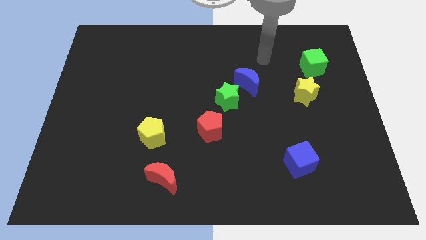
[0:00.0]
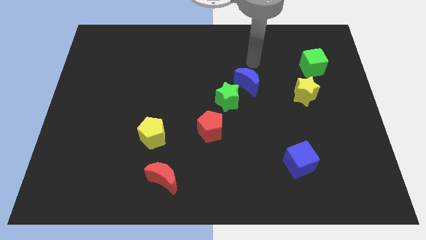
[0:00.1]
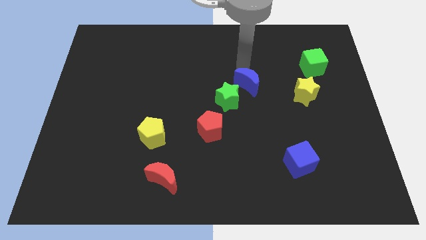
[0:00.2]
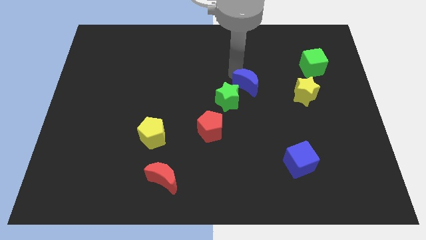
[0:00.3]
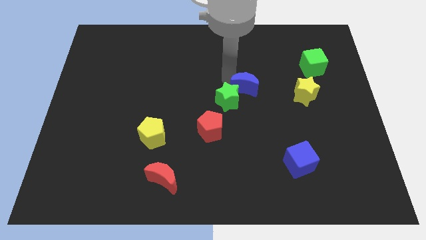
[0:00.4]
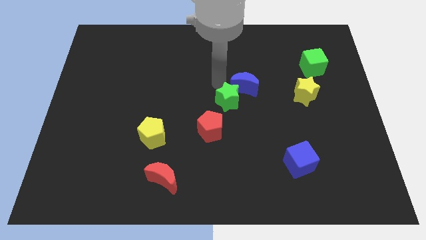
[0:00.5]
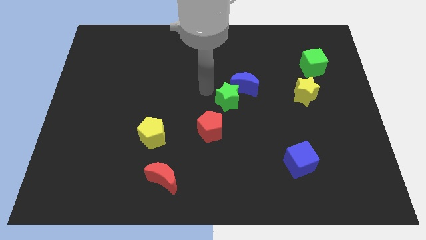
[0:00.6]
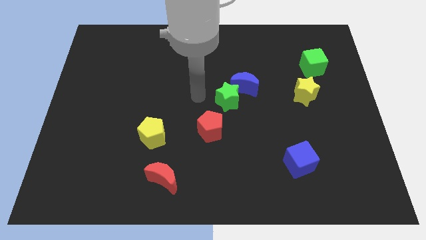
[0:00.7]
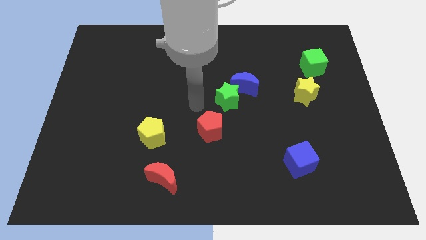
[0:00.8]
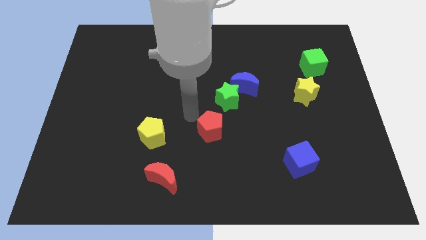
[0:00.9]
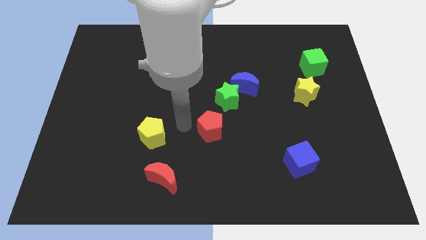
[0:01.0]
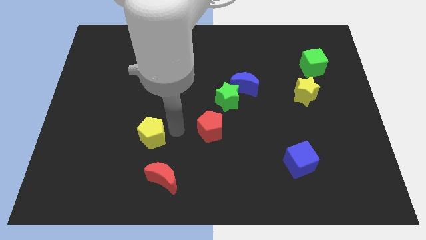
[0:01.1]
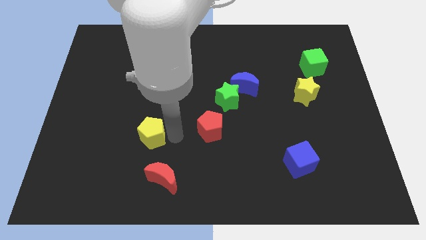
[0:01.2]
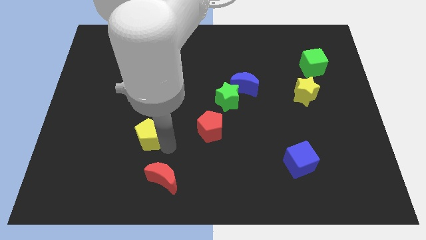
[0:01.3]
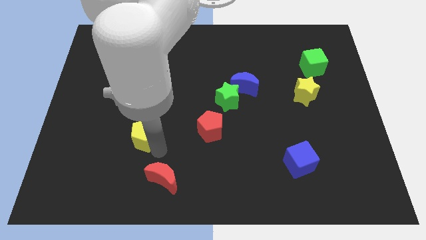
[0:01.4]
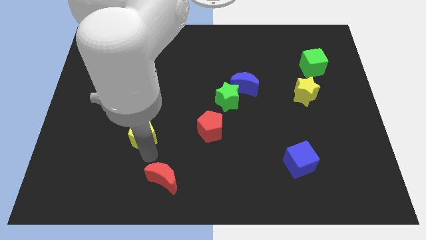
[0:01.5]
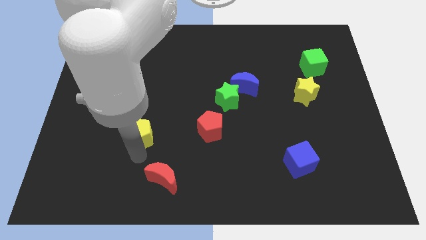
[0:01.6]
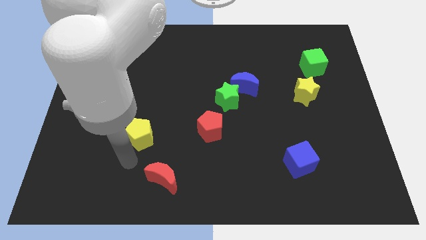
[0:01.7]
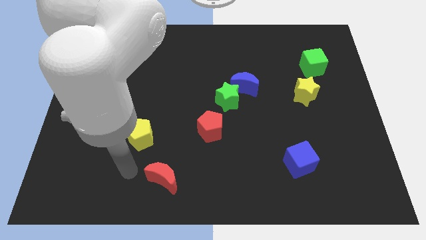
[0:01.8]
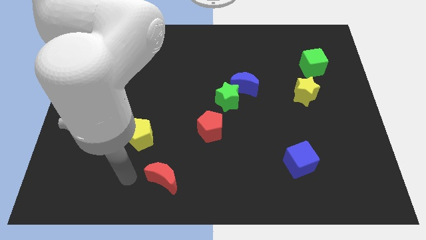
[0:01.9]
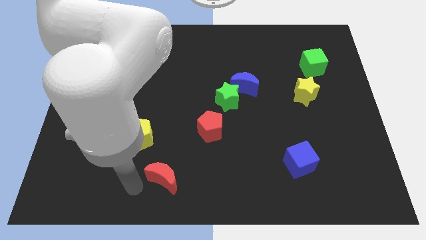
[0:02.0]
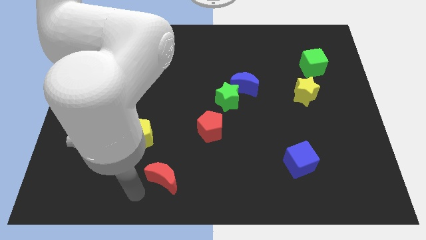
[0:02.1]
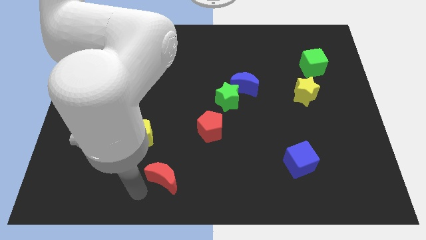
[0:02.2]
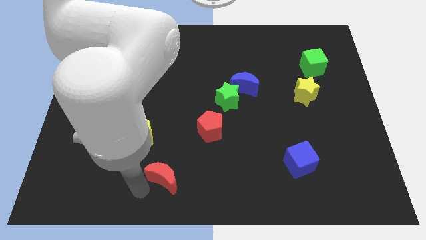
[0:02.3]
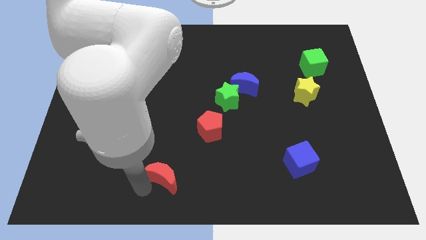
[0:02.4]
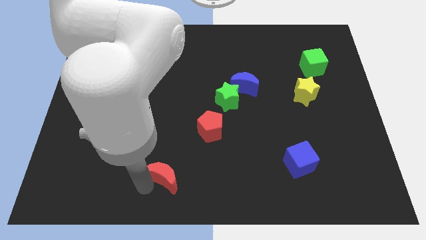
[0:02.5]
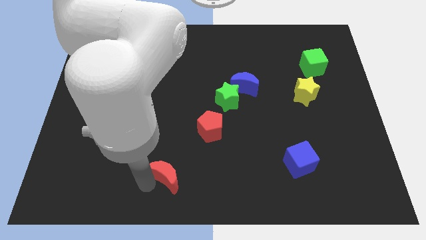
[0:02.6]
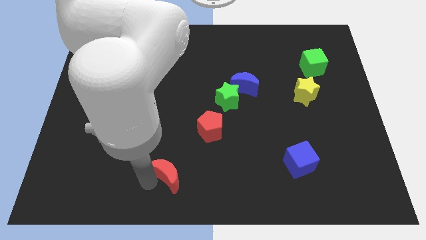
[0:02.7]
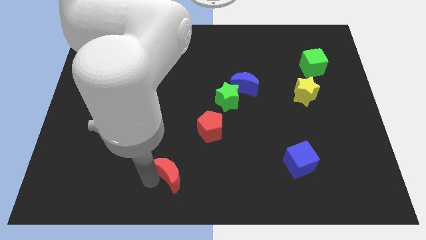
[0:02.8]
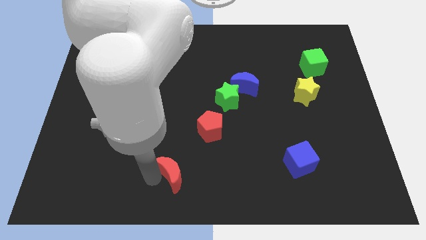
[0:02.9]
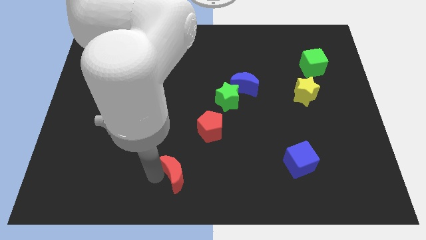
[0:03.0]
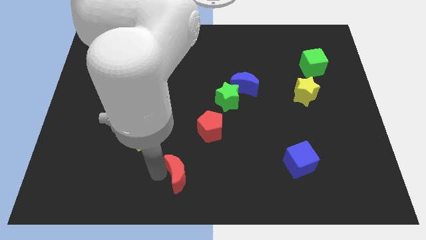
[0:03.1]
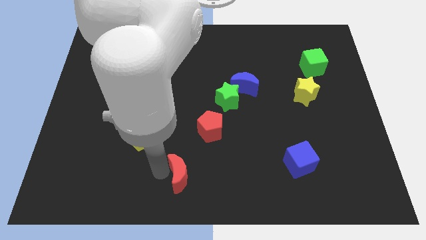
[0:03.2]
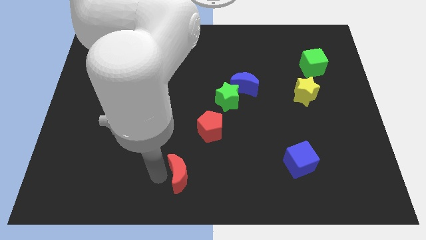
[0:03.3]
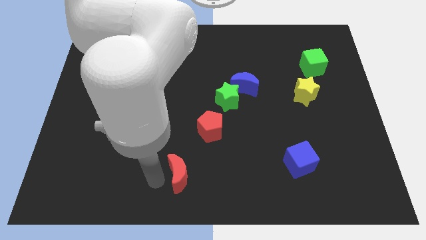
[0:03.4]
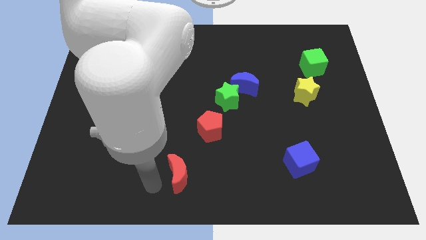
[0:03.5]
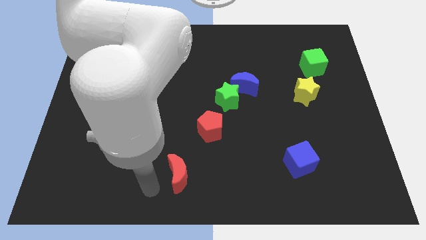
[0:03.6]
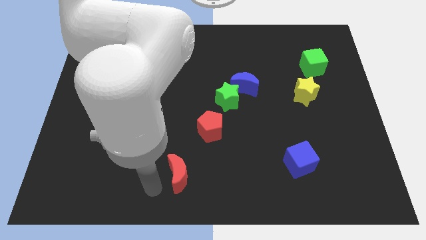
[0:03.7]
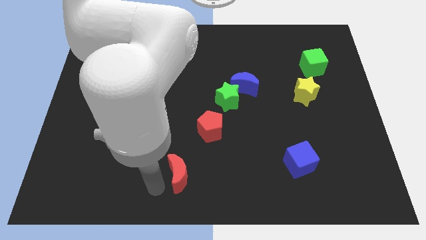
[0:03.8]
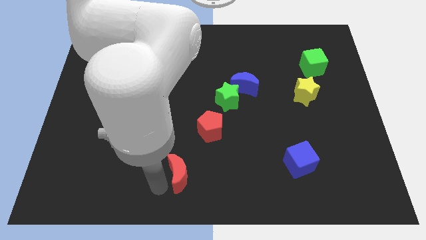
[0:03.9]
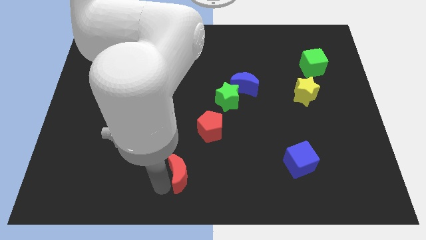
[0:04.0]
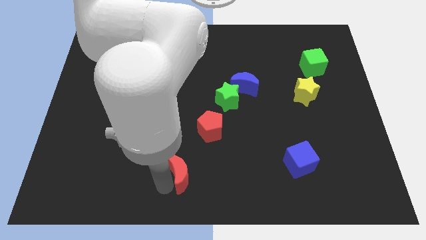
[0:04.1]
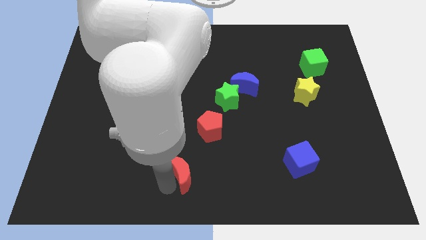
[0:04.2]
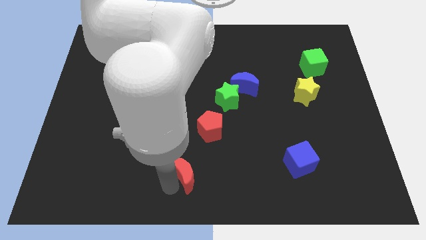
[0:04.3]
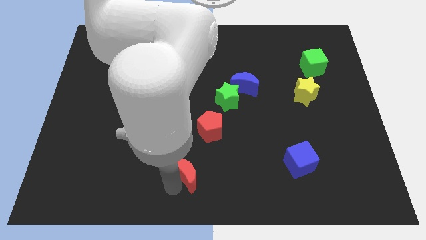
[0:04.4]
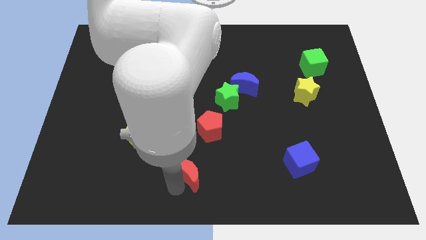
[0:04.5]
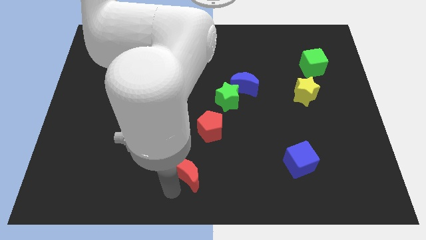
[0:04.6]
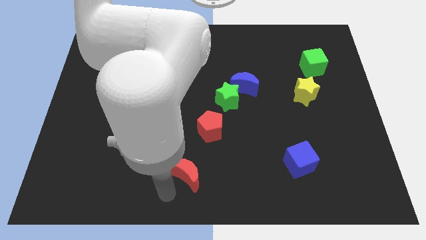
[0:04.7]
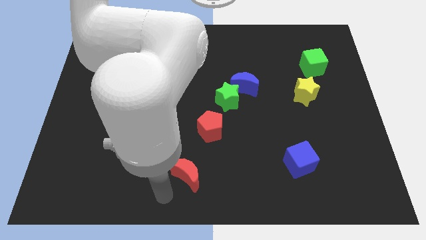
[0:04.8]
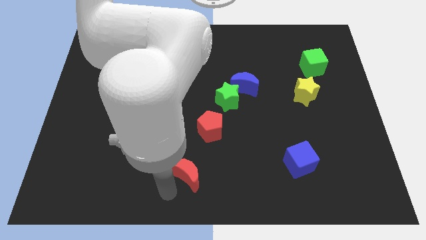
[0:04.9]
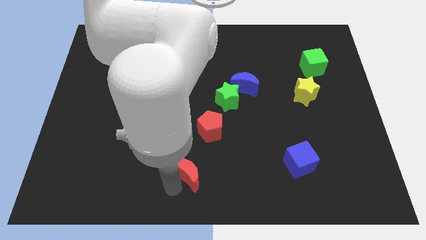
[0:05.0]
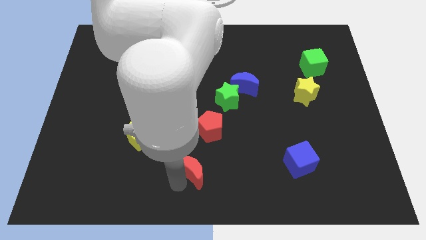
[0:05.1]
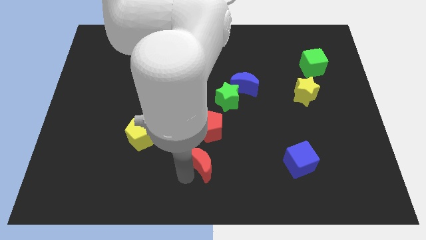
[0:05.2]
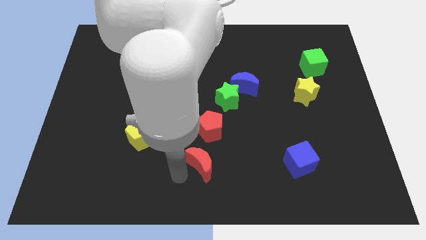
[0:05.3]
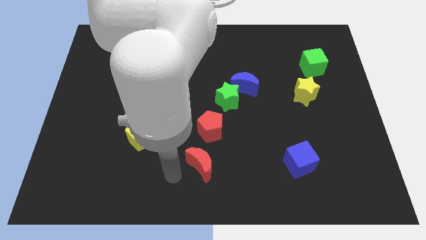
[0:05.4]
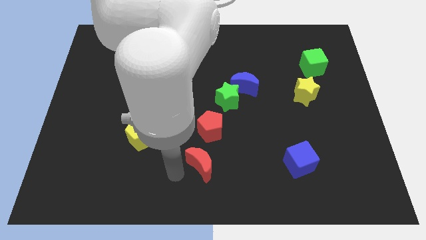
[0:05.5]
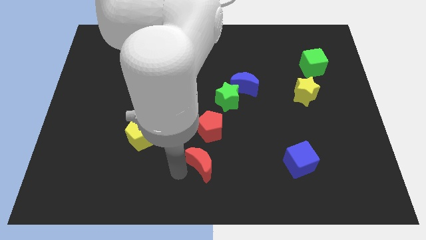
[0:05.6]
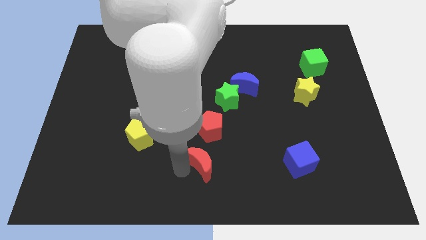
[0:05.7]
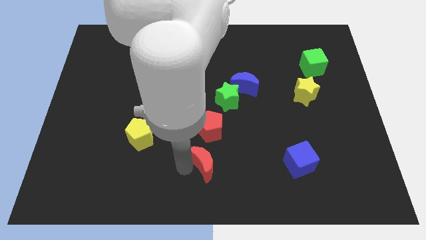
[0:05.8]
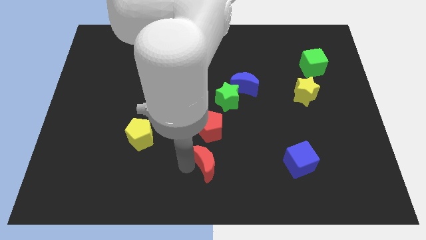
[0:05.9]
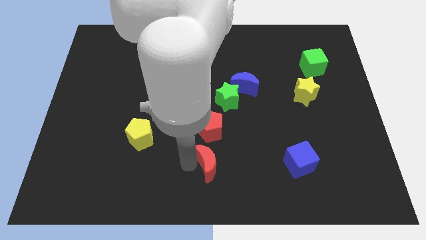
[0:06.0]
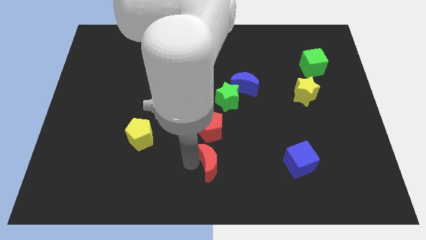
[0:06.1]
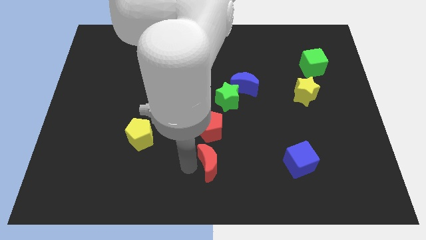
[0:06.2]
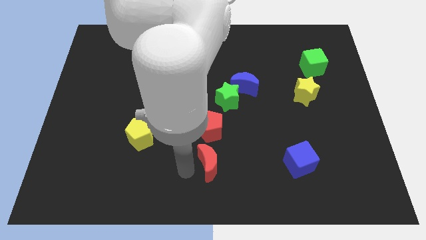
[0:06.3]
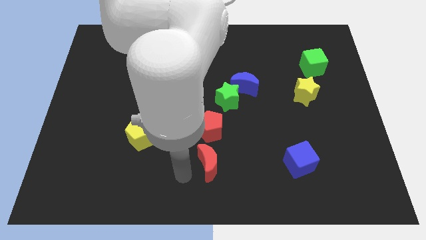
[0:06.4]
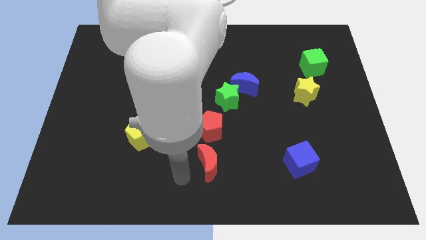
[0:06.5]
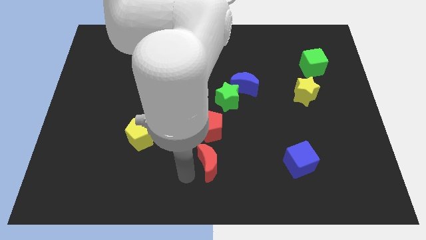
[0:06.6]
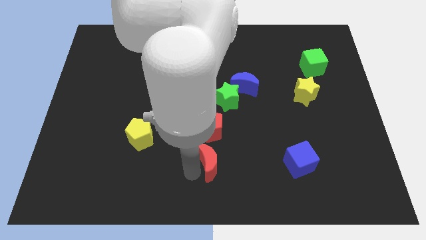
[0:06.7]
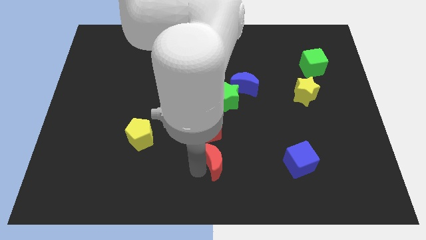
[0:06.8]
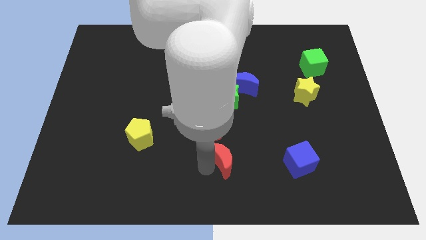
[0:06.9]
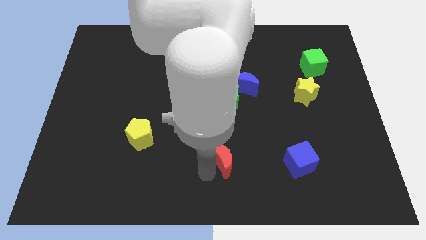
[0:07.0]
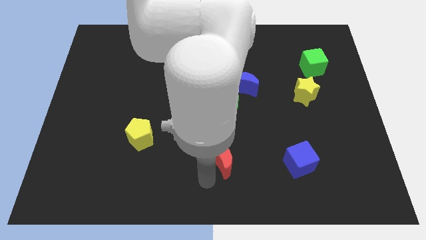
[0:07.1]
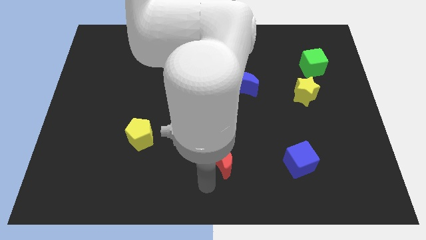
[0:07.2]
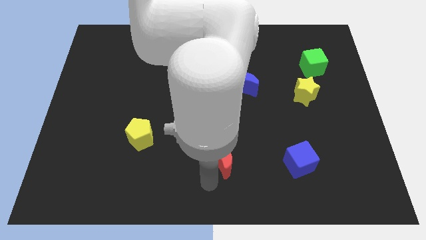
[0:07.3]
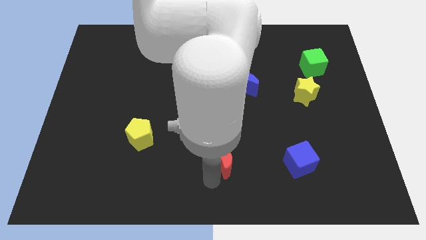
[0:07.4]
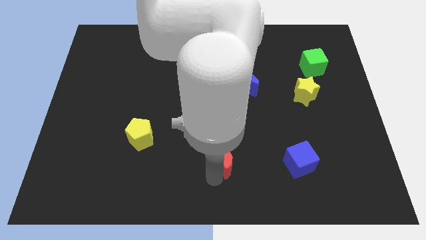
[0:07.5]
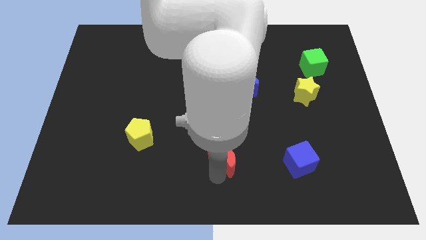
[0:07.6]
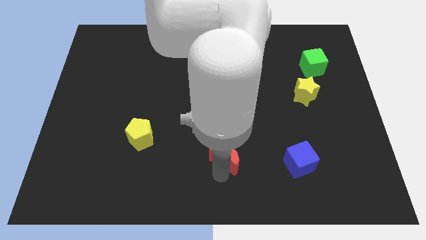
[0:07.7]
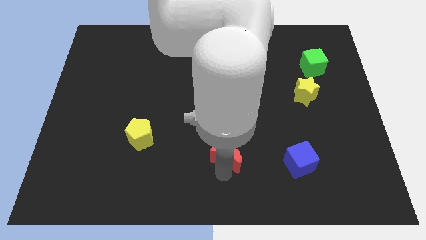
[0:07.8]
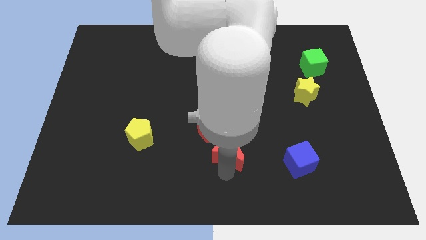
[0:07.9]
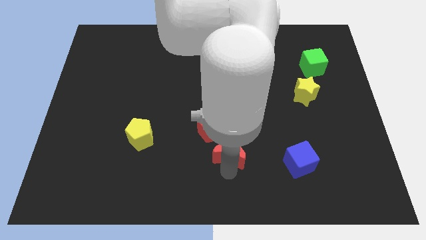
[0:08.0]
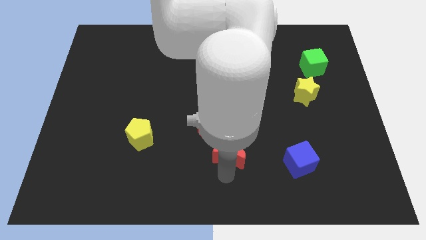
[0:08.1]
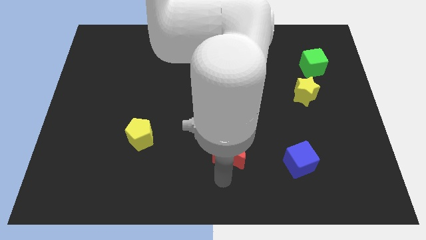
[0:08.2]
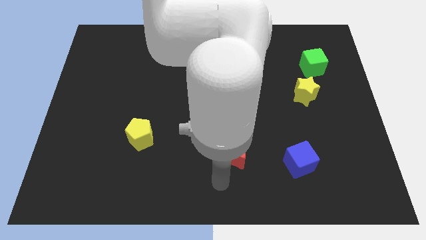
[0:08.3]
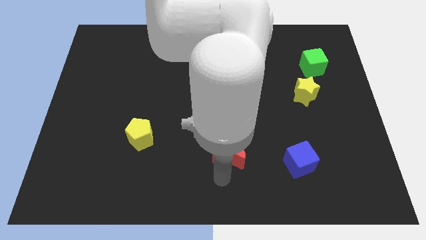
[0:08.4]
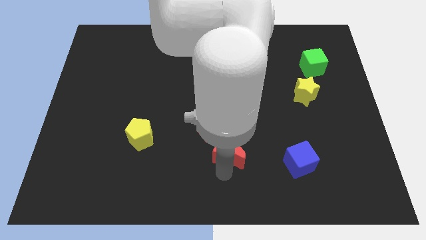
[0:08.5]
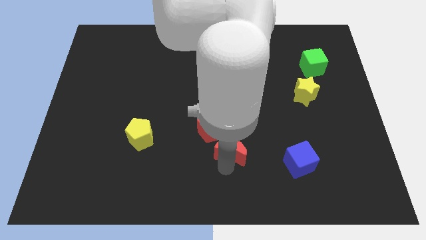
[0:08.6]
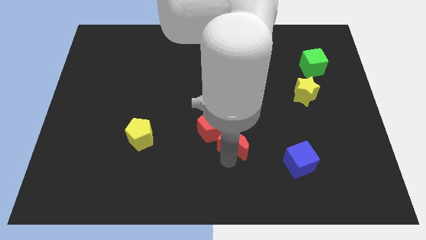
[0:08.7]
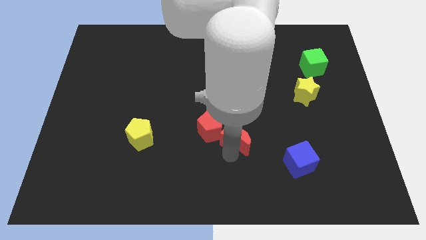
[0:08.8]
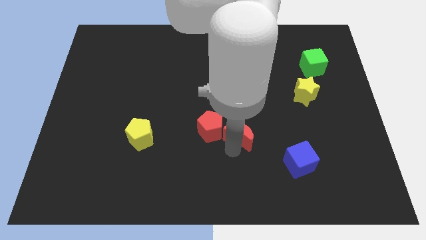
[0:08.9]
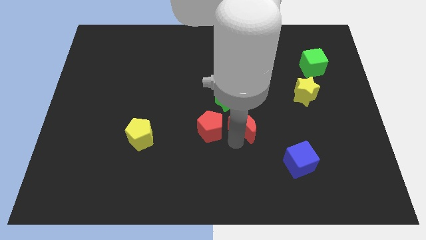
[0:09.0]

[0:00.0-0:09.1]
slide the red moon up and to the right
